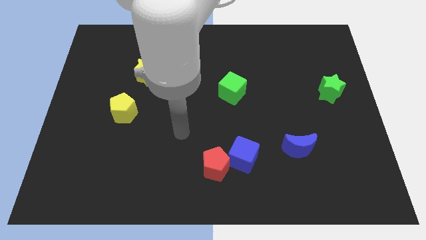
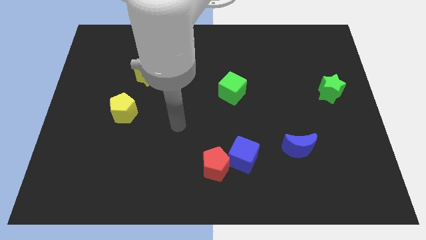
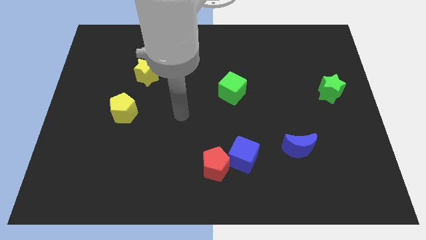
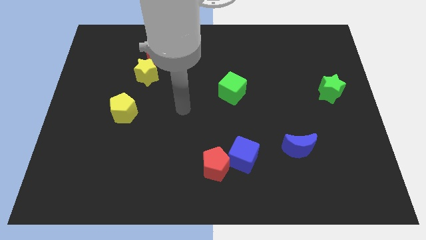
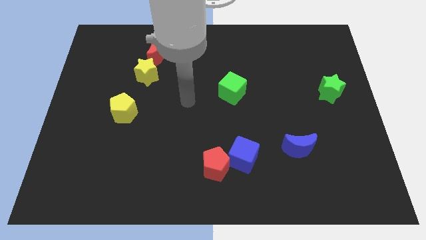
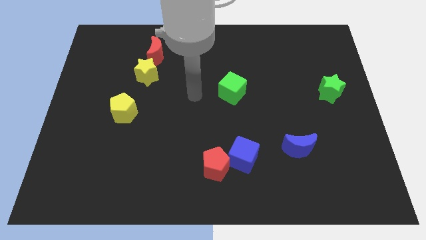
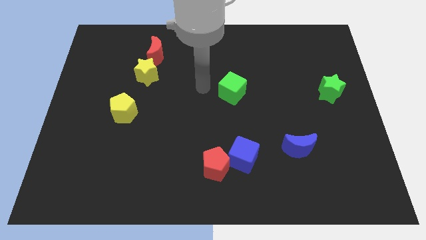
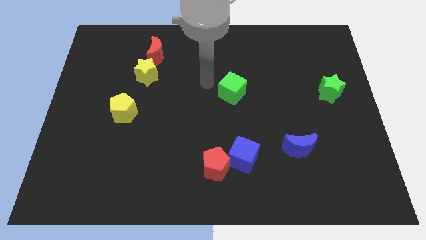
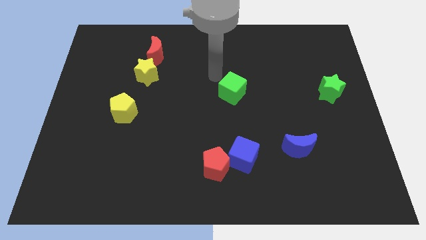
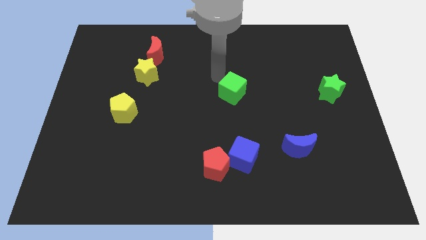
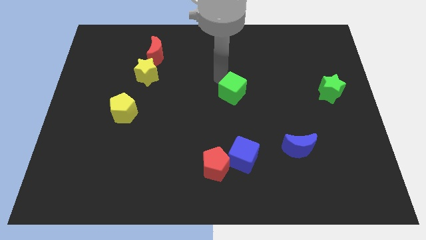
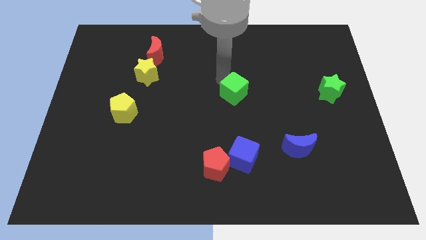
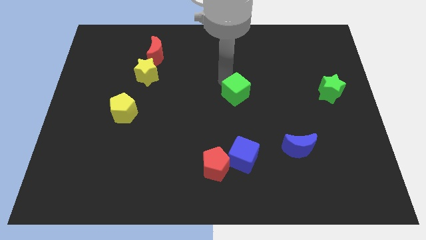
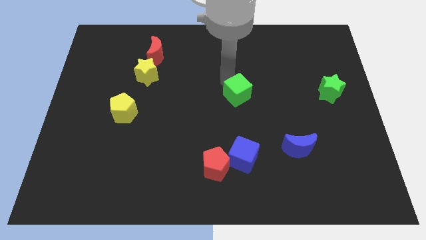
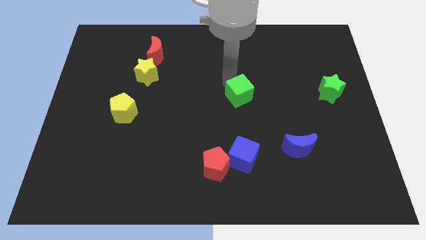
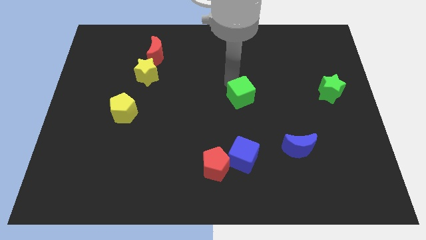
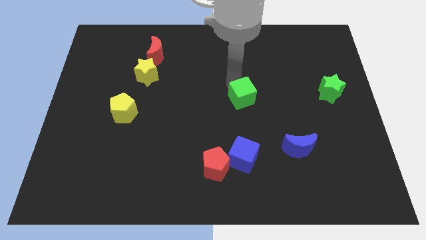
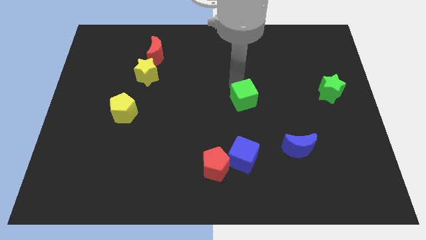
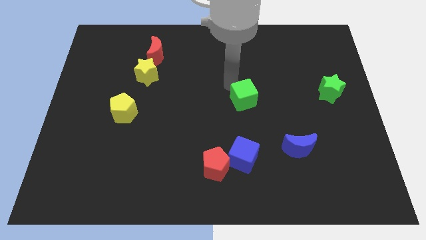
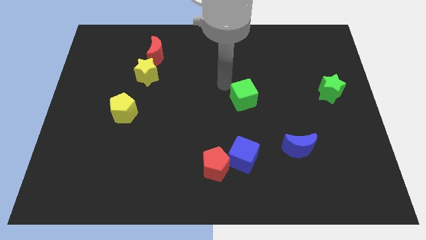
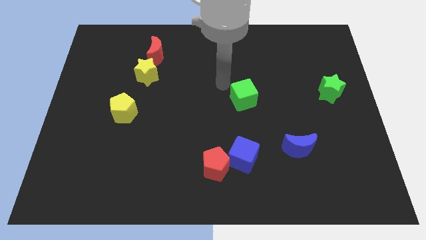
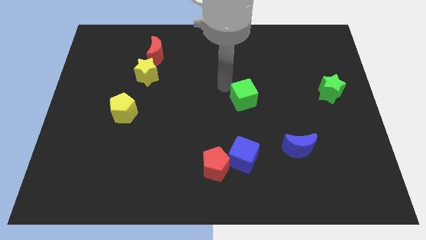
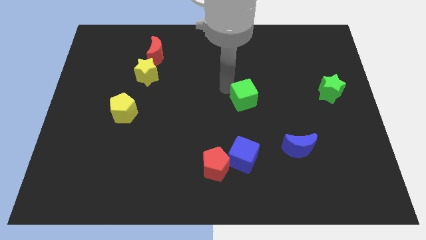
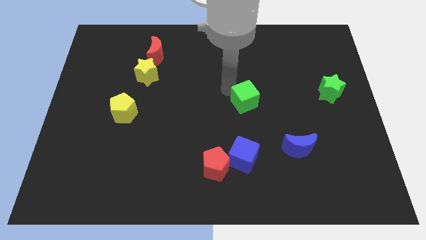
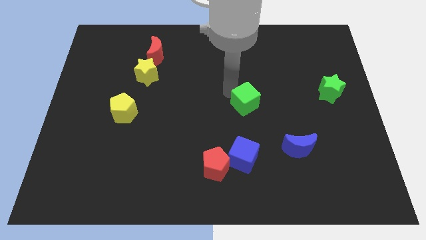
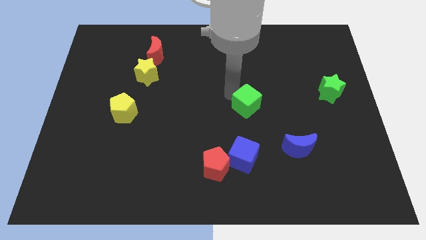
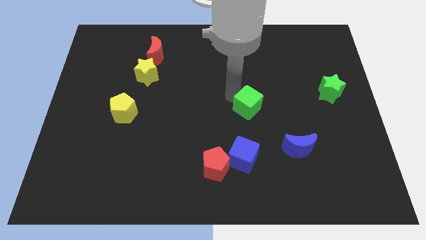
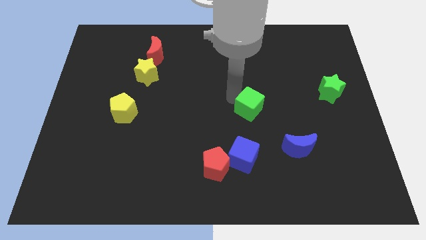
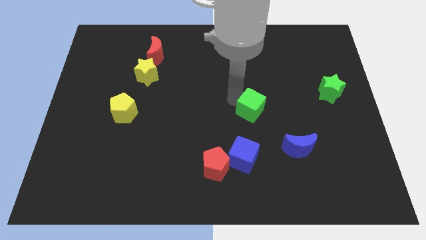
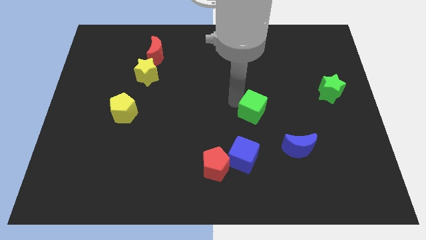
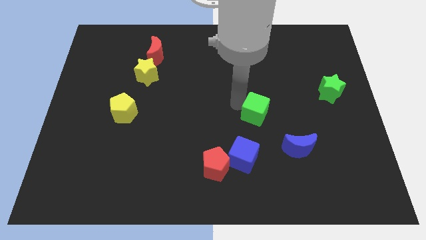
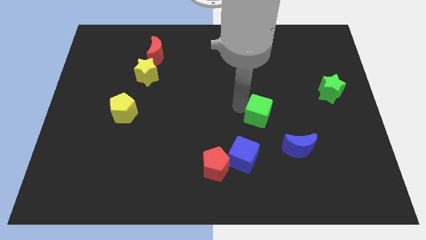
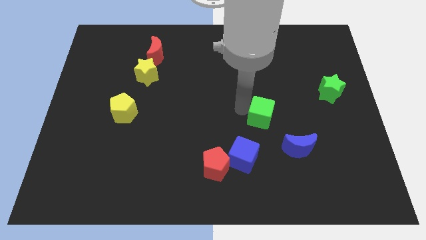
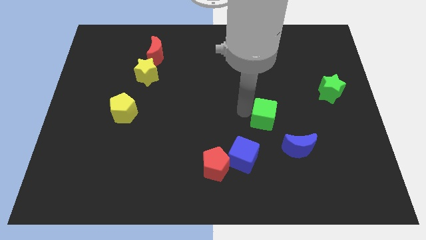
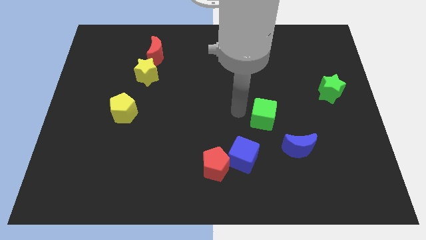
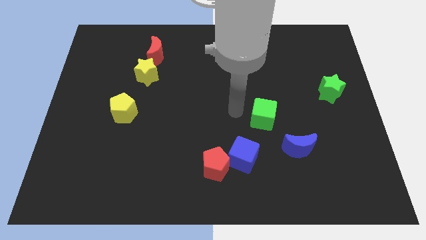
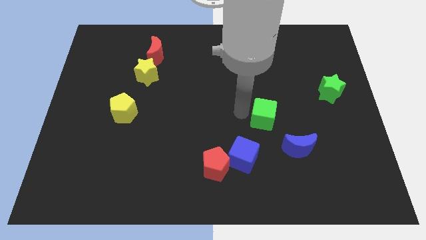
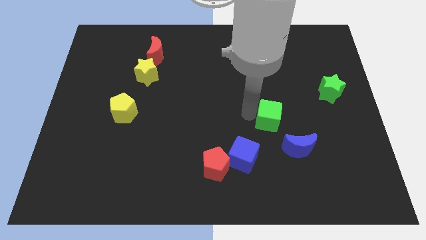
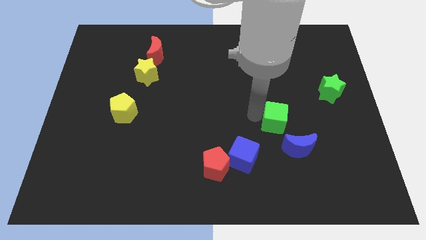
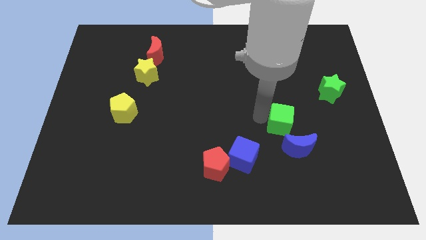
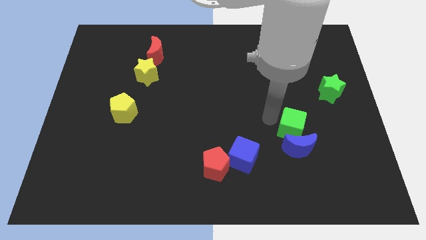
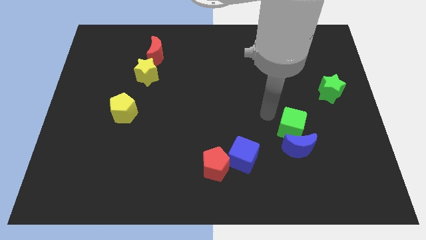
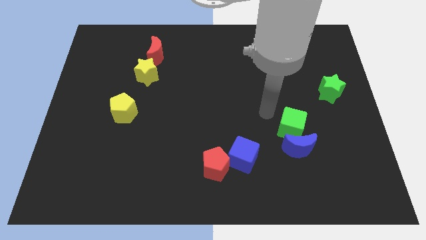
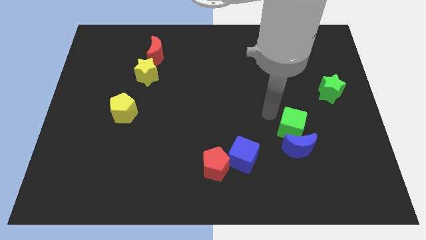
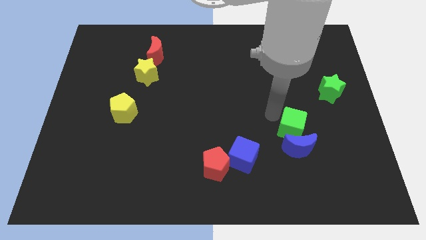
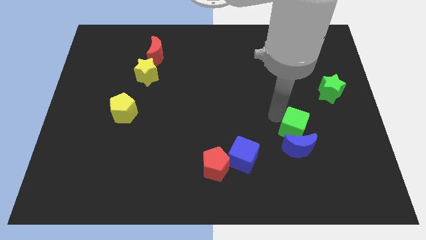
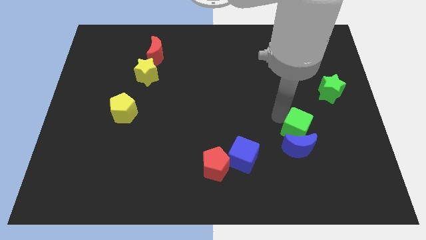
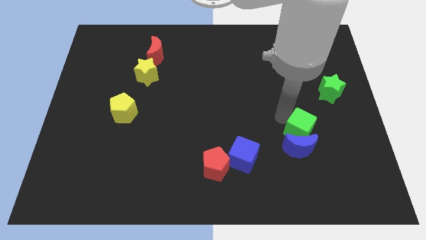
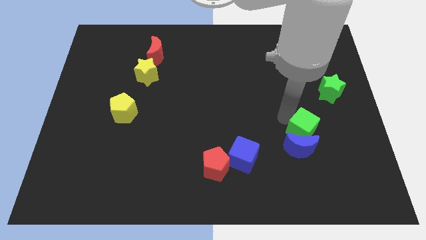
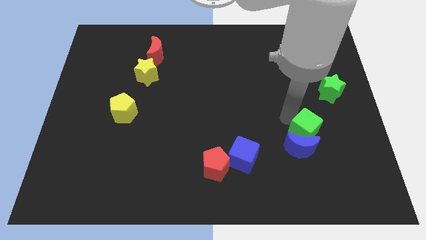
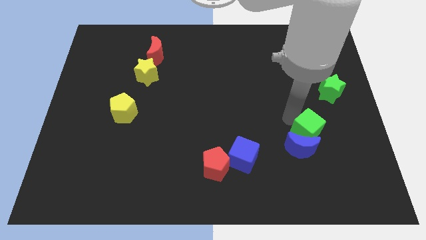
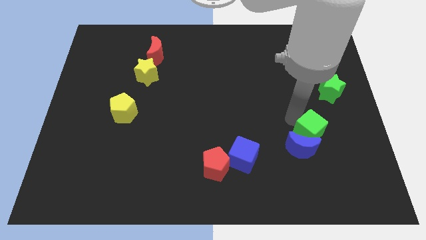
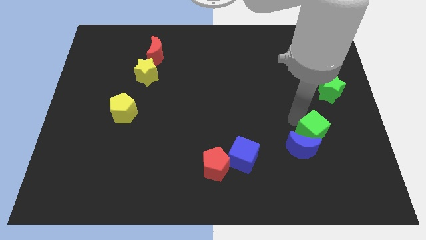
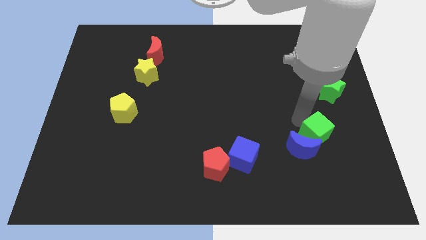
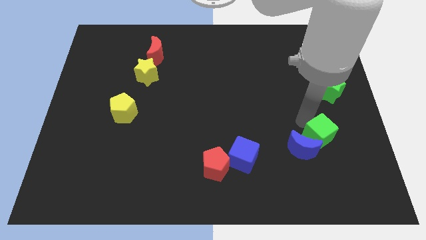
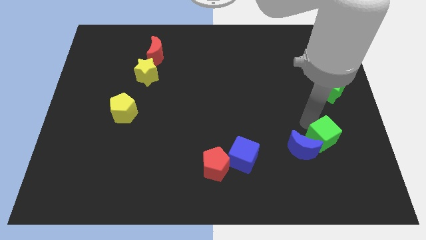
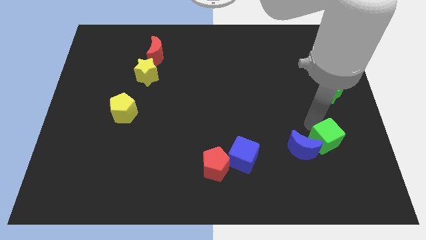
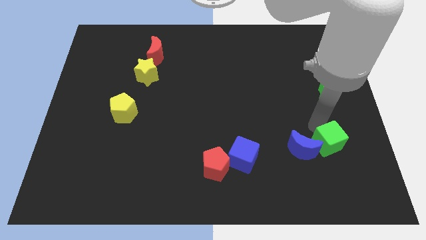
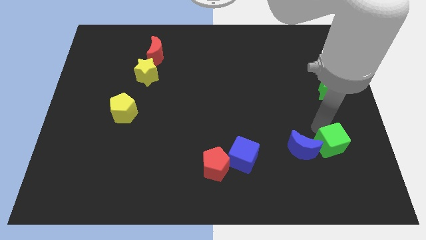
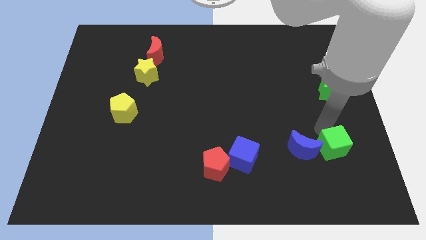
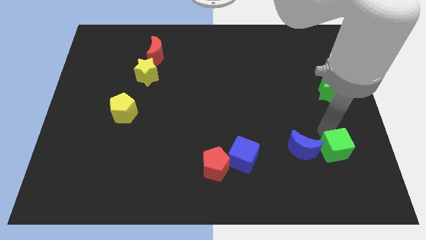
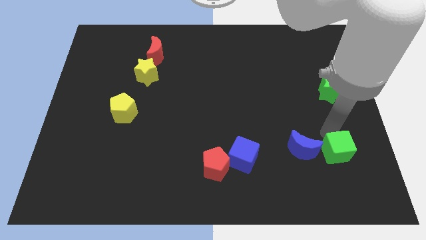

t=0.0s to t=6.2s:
move the green cube to the bottom right of the blue moon

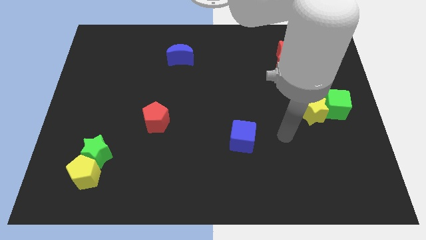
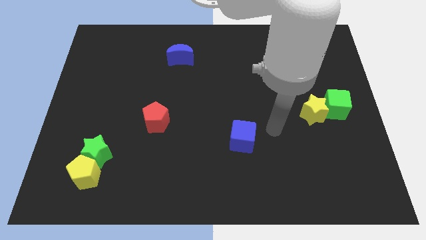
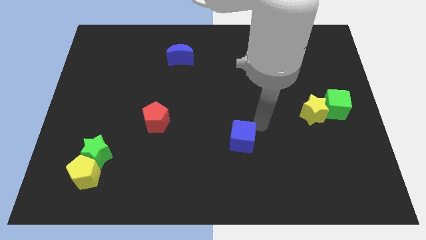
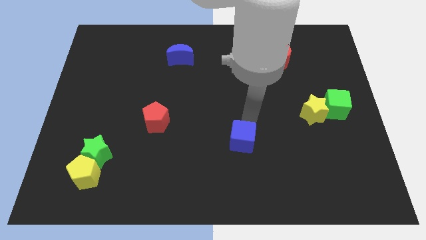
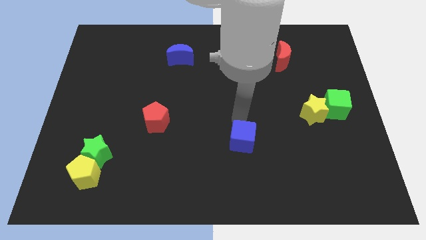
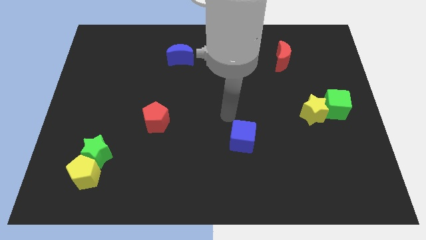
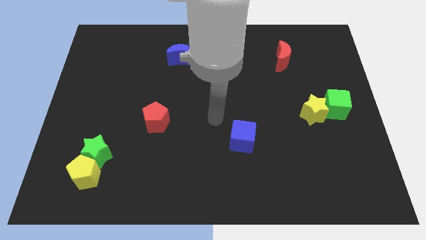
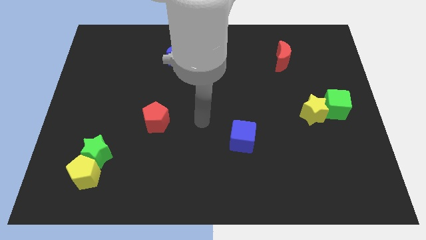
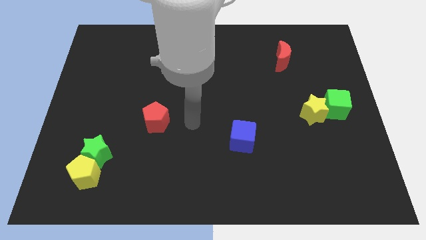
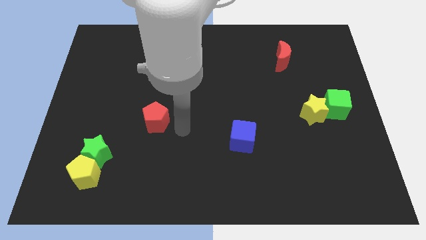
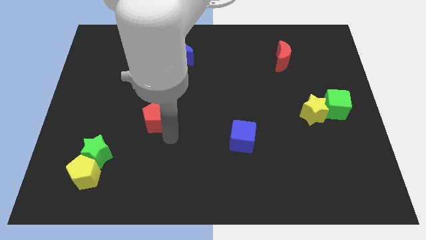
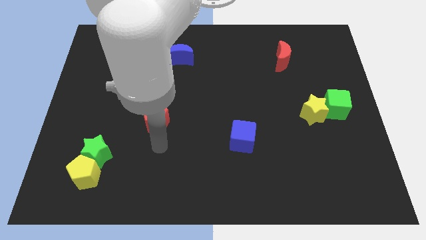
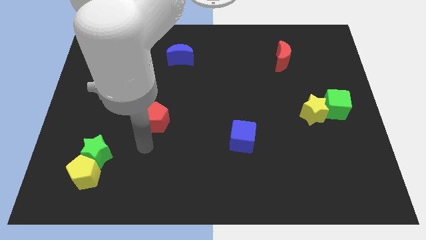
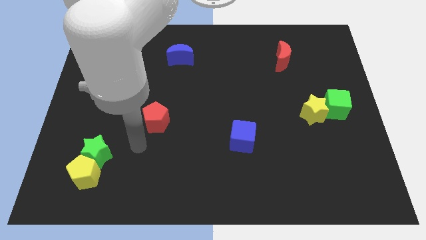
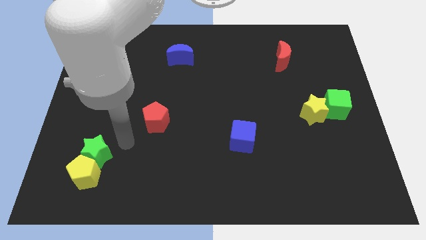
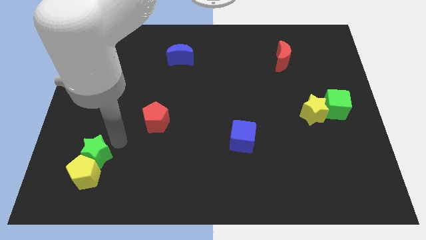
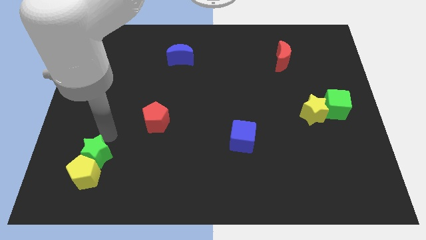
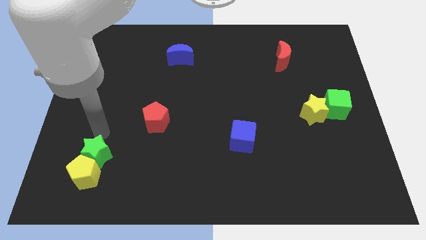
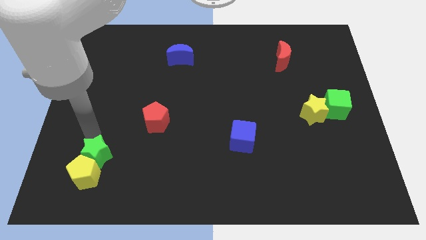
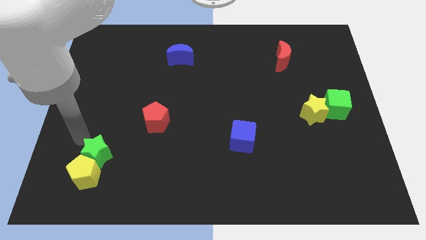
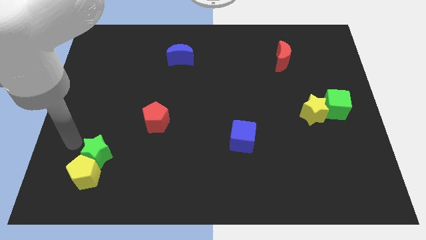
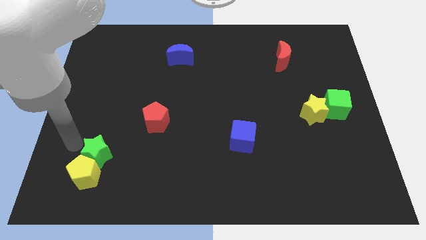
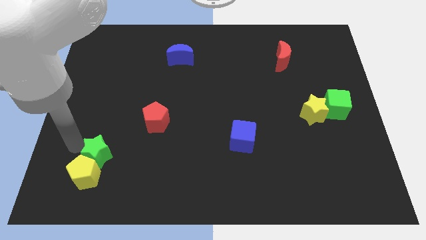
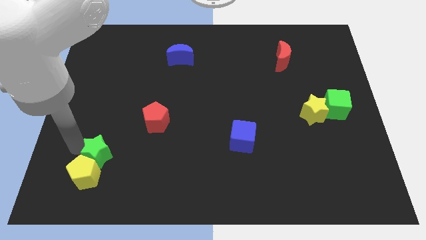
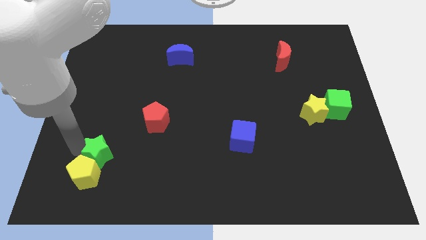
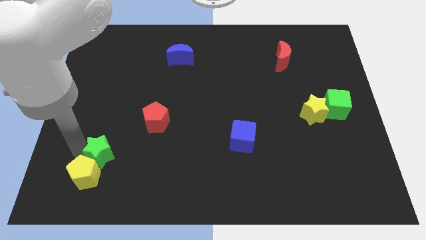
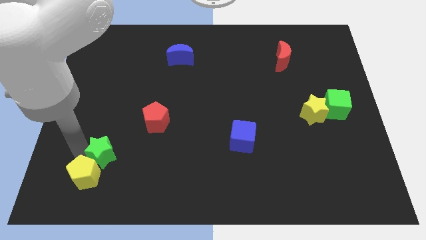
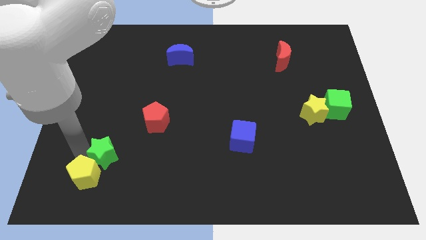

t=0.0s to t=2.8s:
move the green star just right of the yellow pentagon
